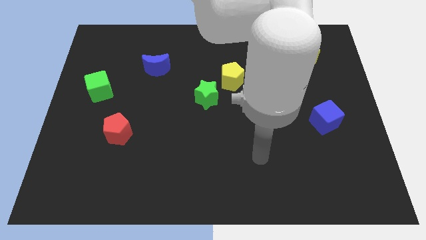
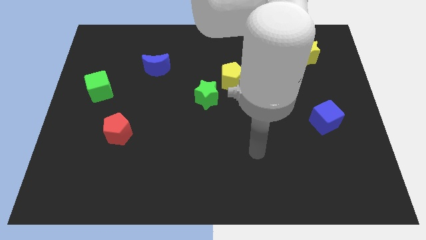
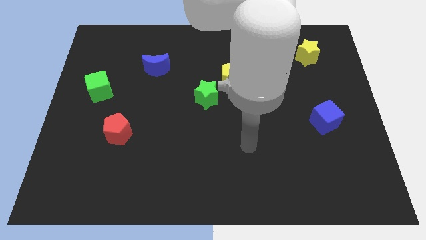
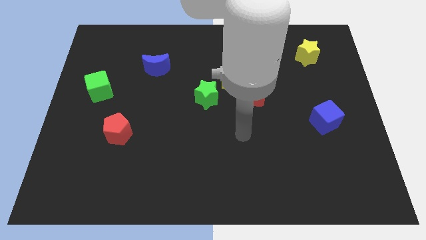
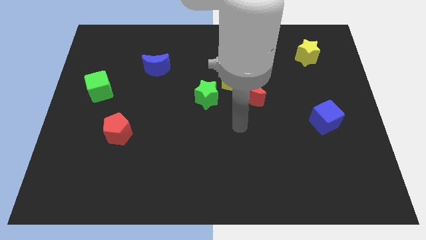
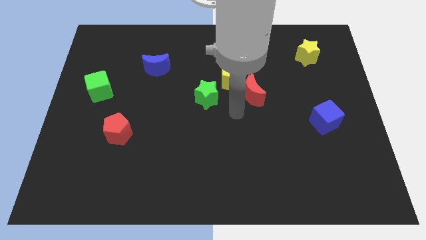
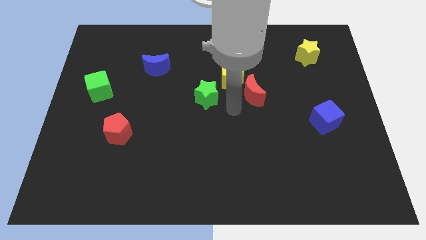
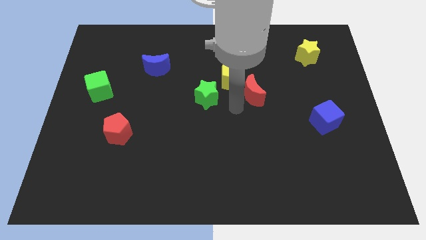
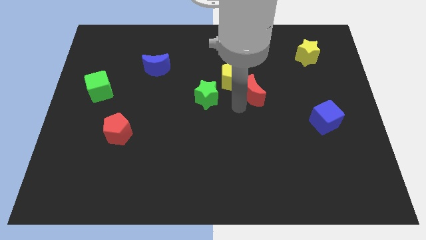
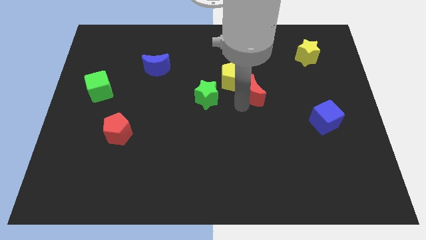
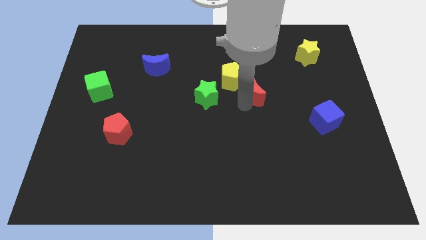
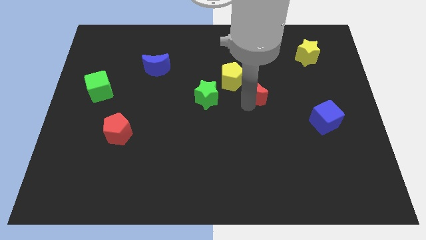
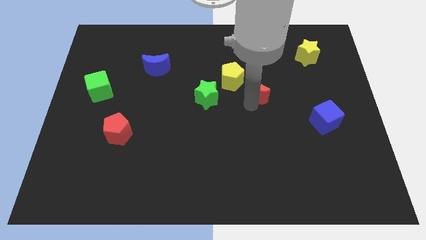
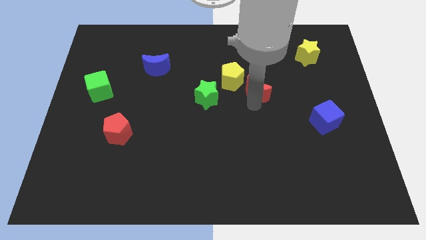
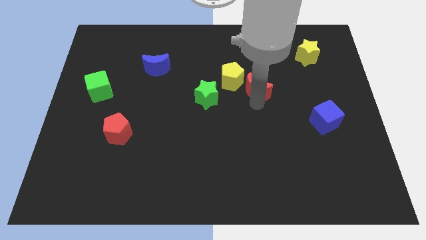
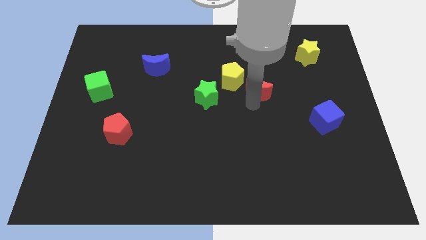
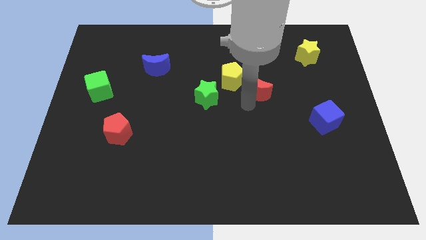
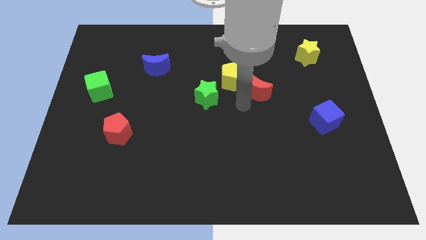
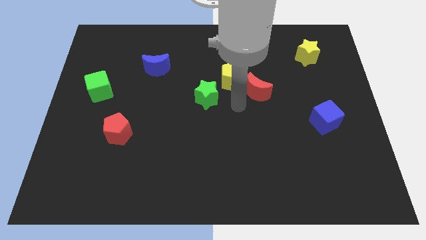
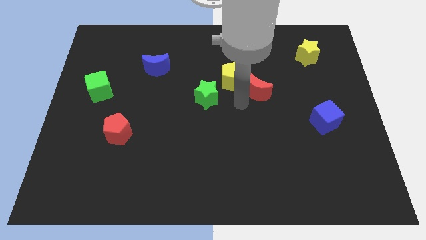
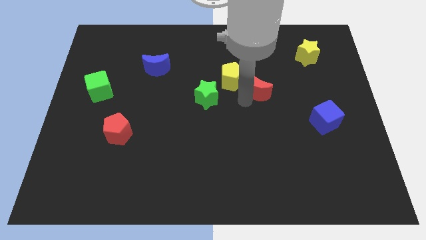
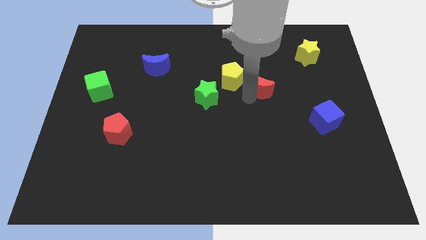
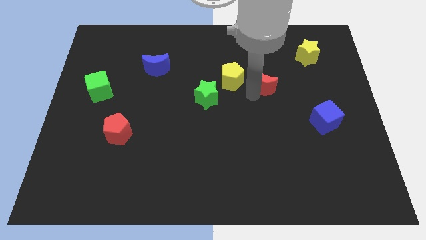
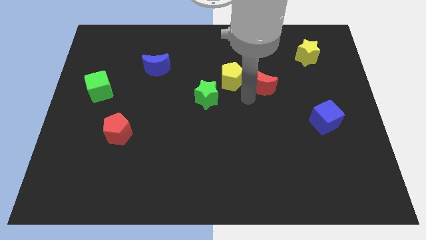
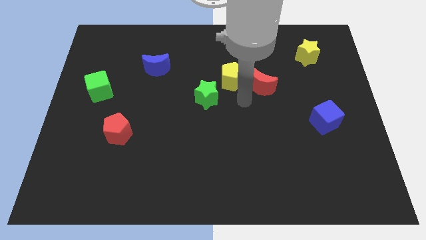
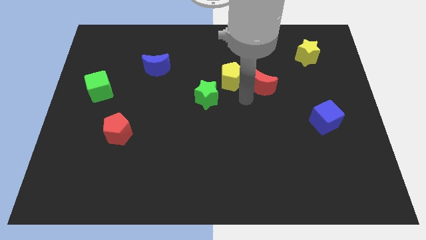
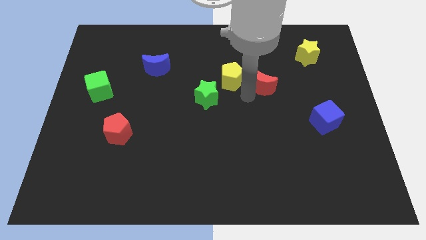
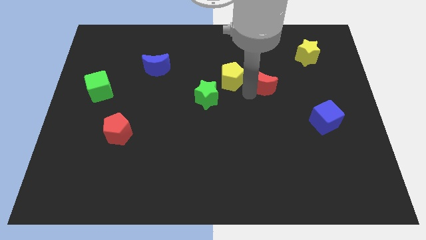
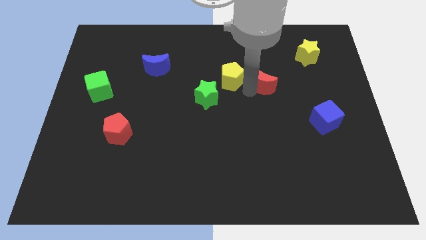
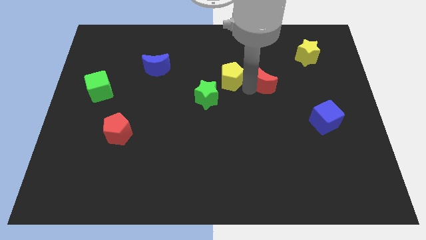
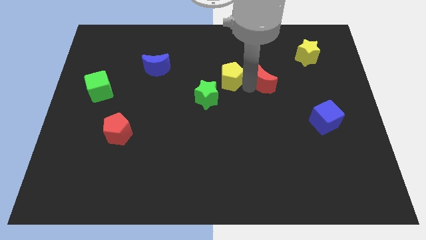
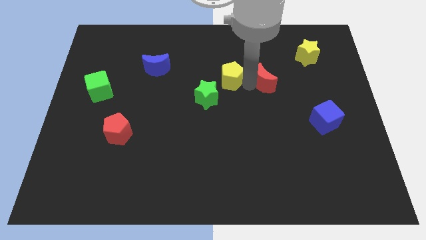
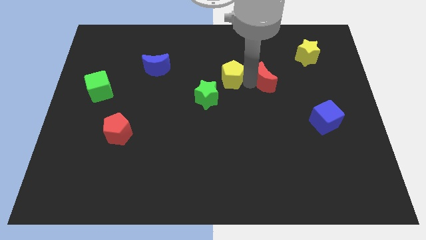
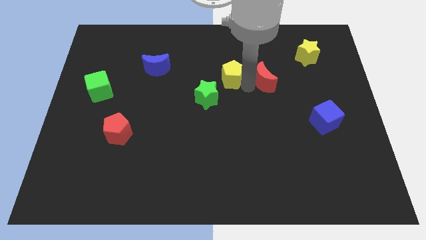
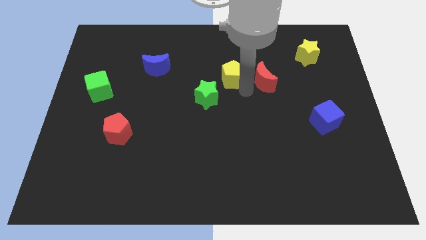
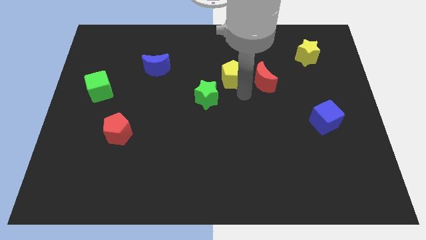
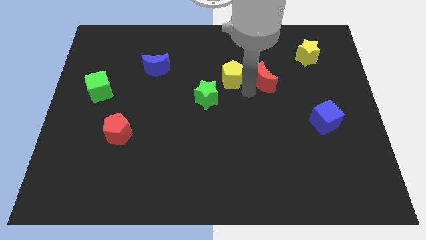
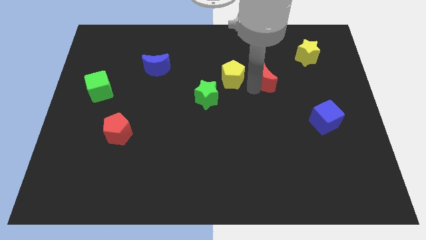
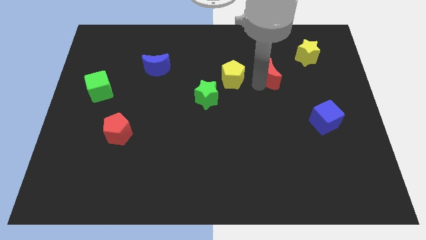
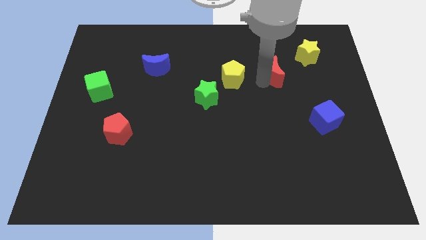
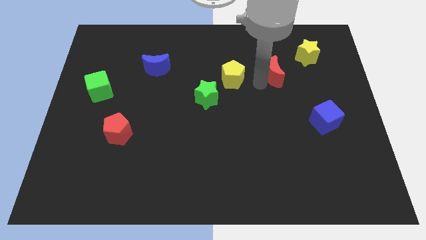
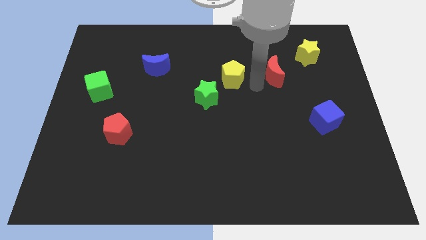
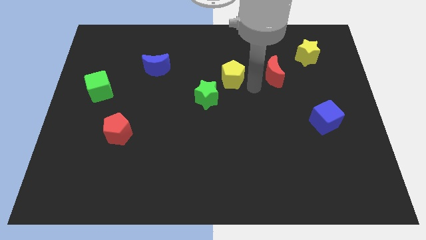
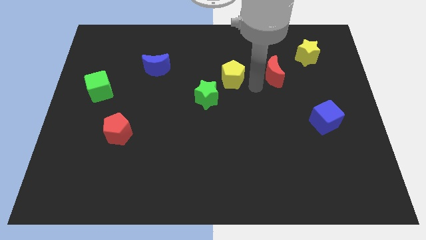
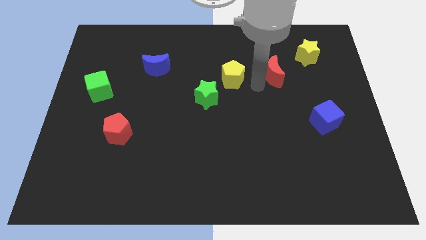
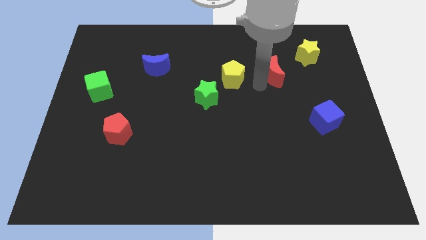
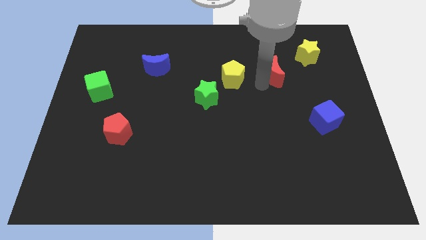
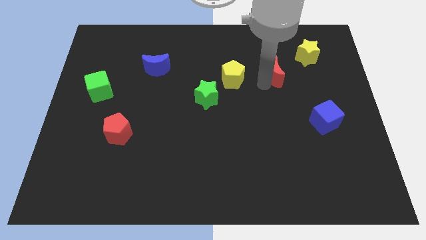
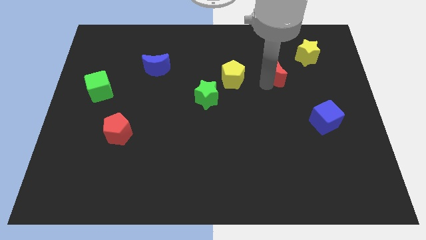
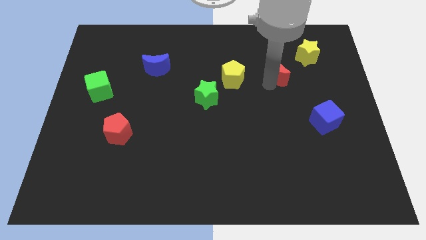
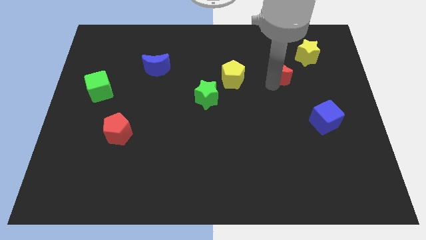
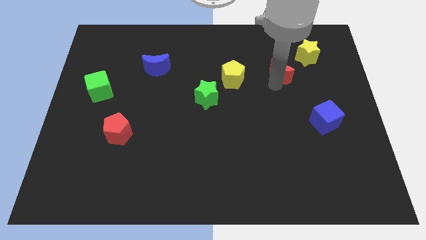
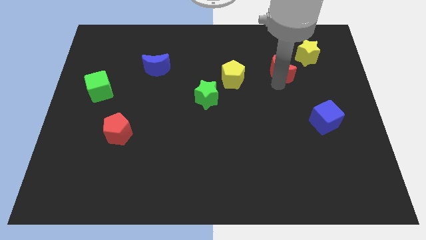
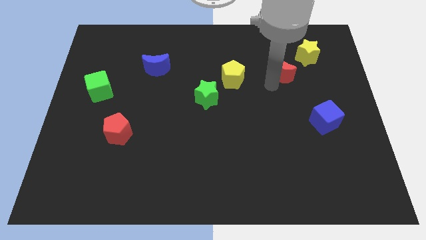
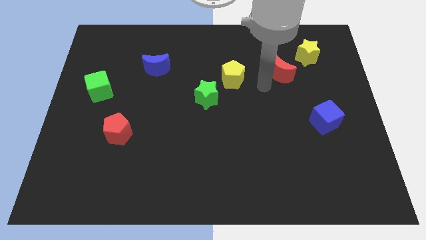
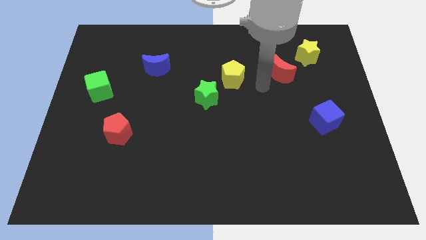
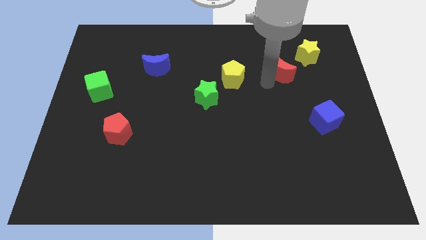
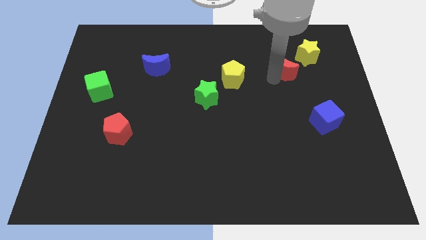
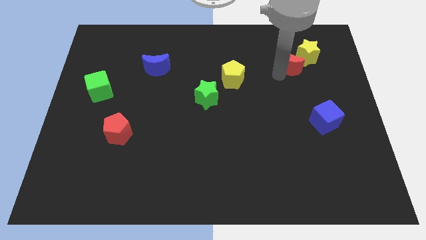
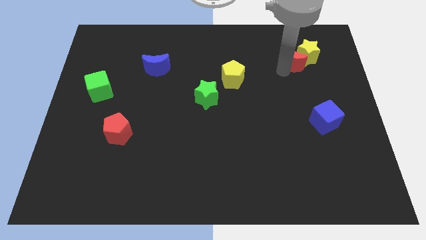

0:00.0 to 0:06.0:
move the red moon close to the yellow star

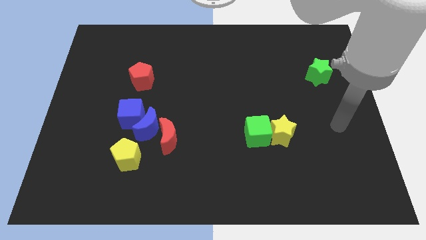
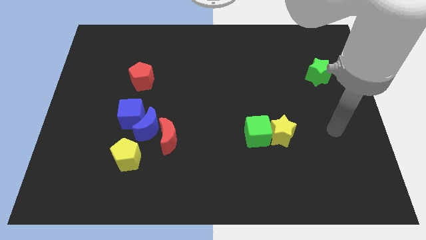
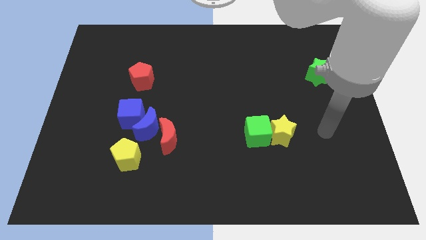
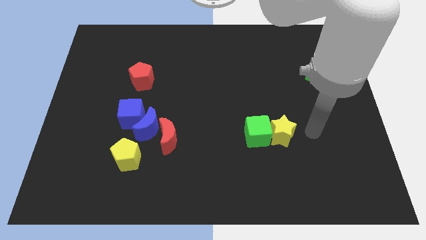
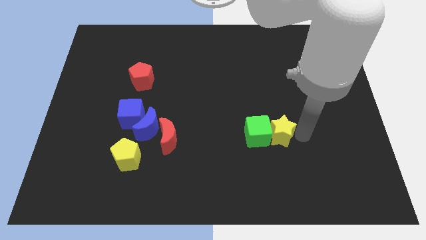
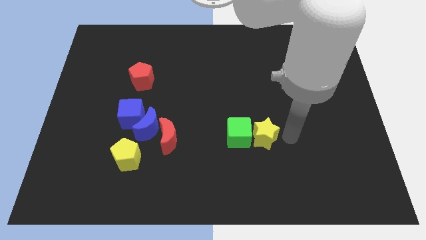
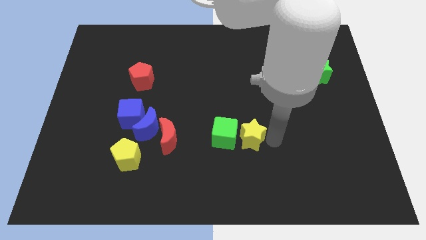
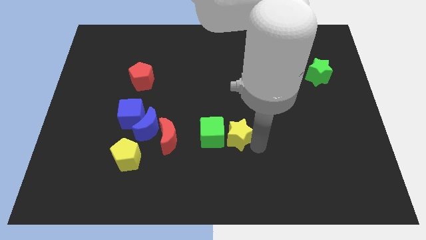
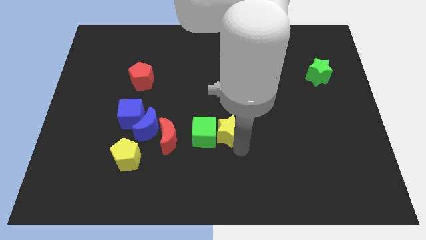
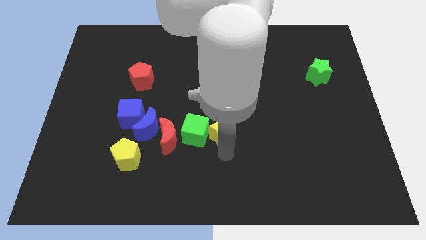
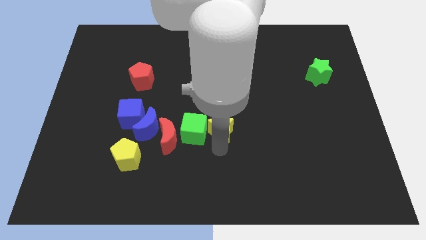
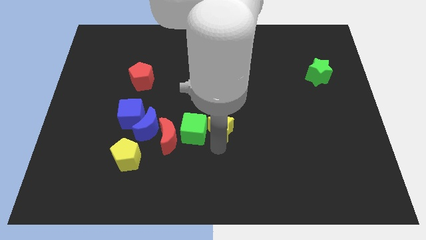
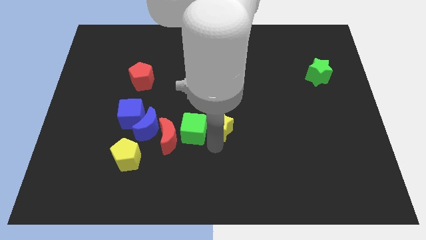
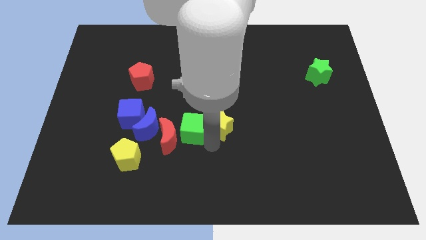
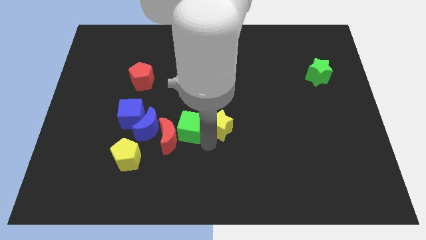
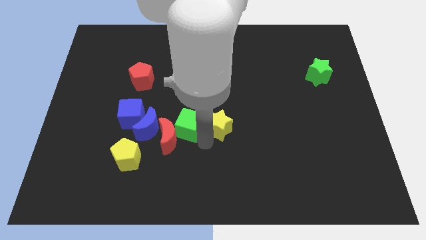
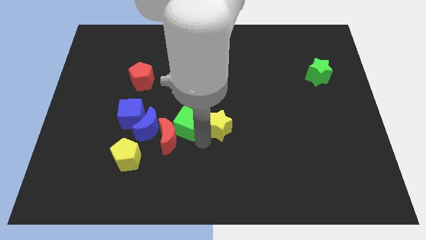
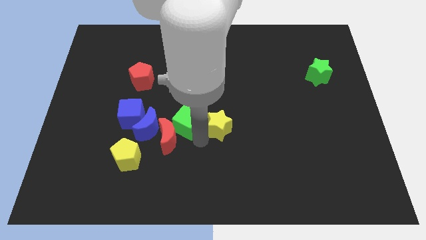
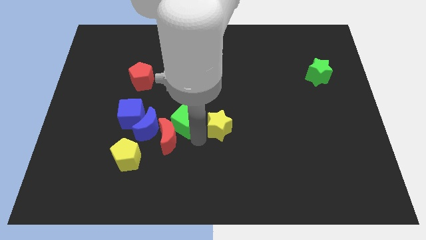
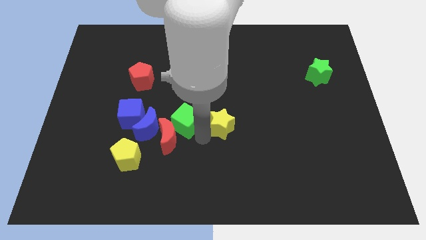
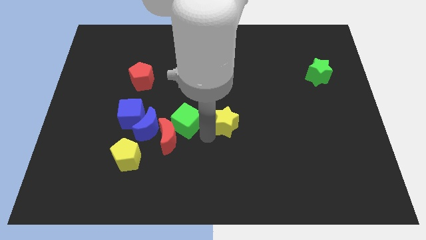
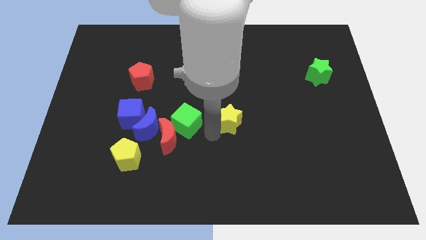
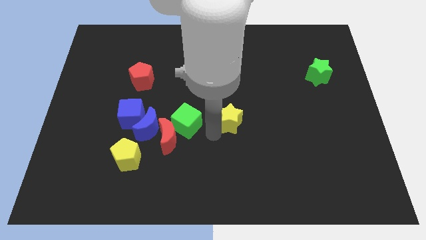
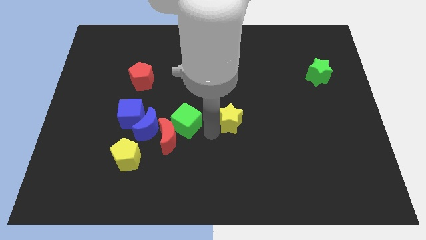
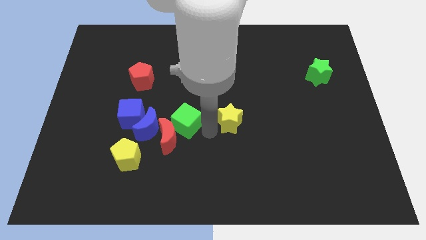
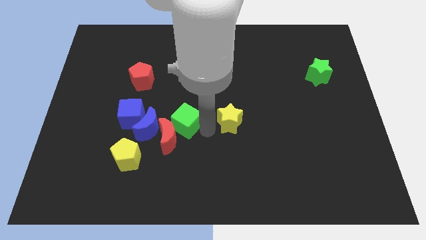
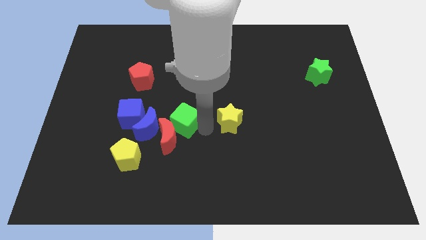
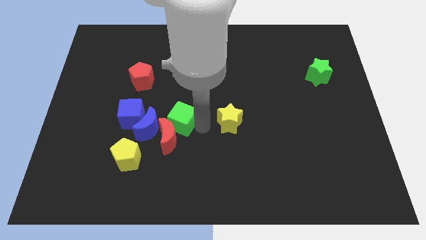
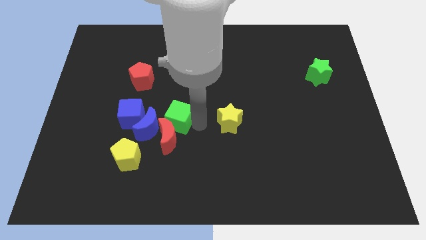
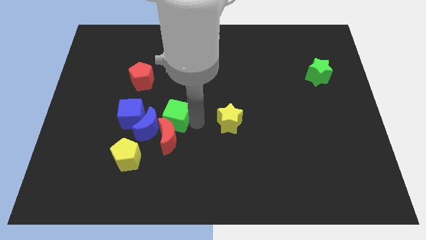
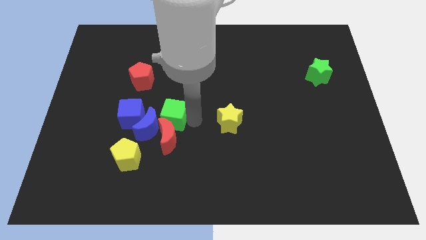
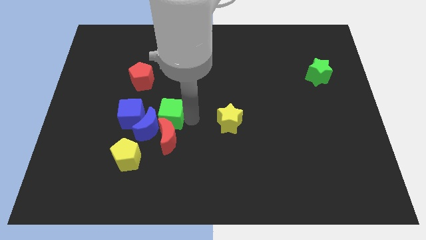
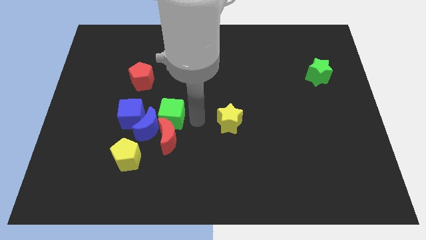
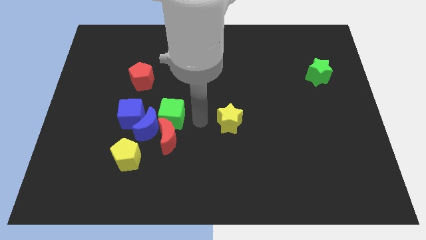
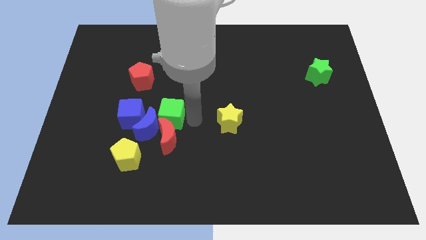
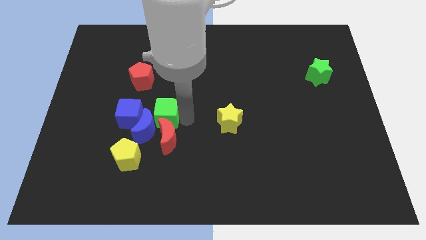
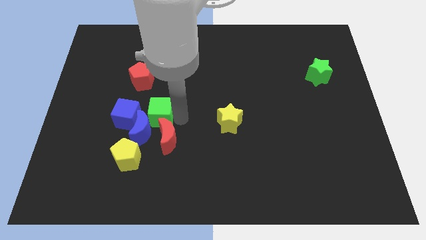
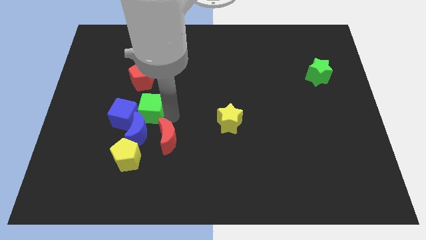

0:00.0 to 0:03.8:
slide the green cube next to the blue cube
